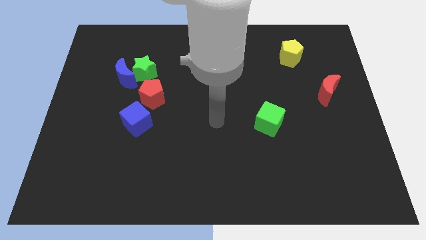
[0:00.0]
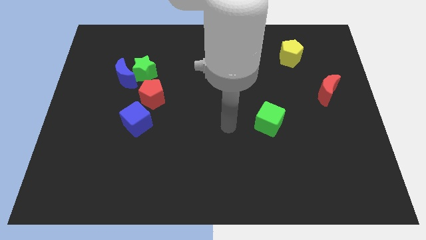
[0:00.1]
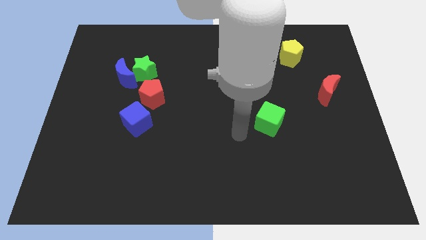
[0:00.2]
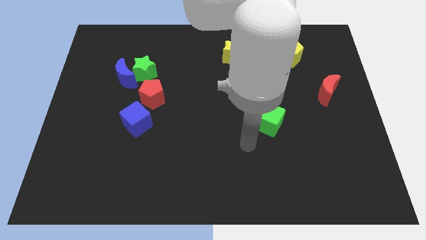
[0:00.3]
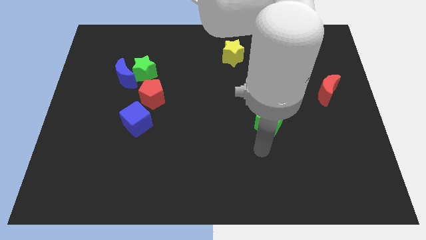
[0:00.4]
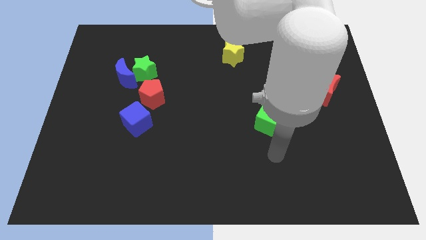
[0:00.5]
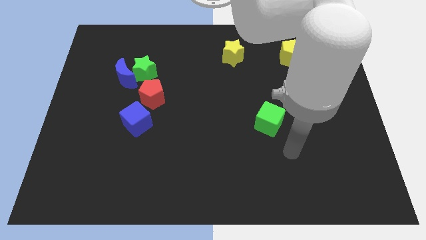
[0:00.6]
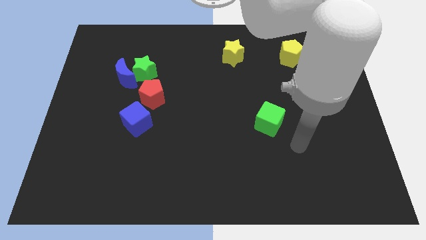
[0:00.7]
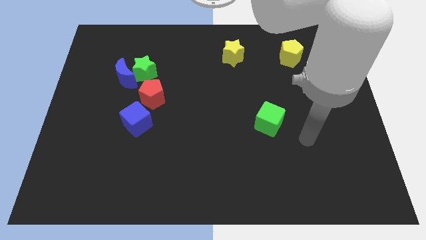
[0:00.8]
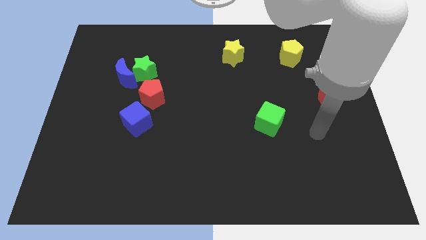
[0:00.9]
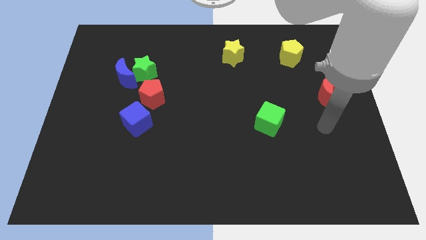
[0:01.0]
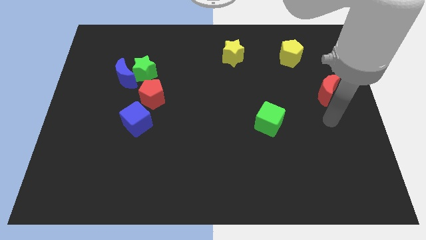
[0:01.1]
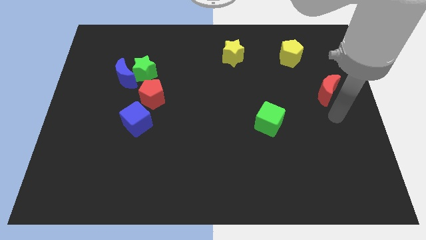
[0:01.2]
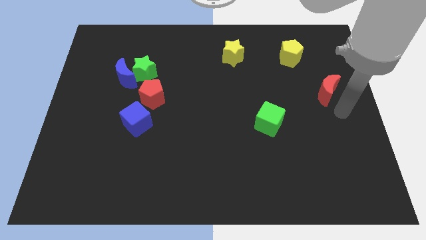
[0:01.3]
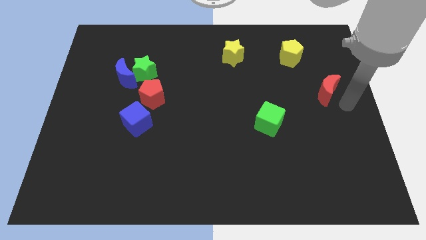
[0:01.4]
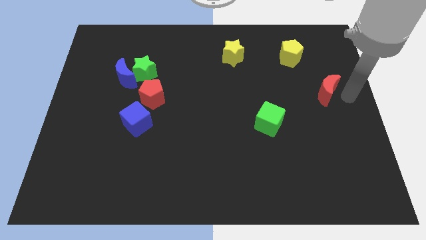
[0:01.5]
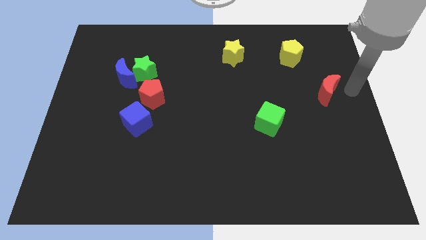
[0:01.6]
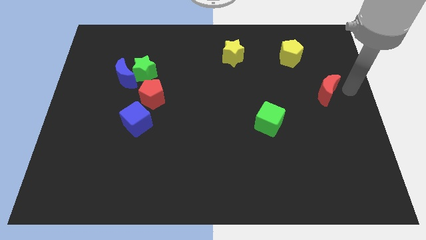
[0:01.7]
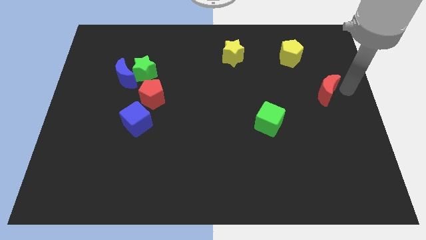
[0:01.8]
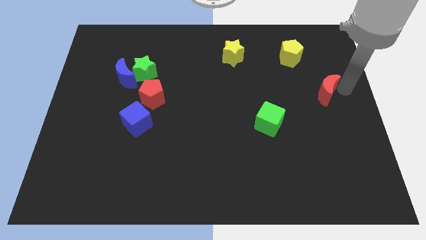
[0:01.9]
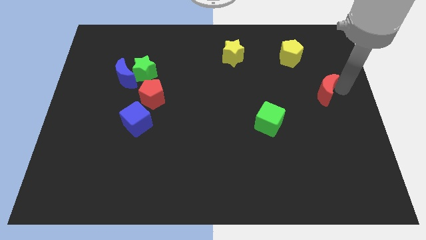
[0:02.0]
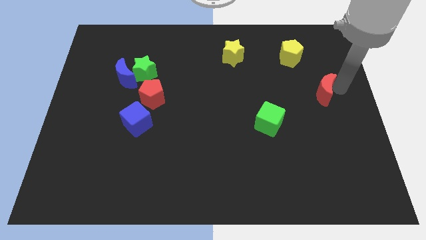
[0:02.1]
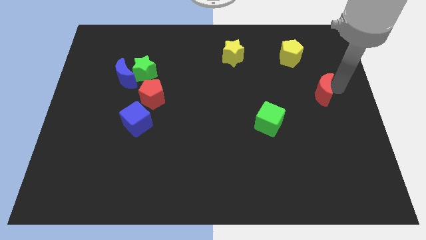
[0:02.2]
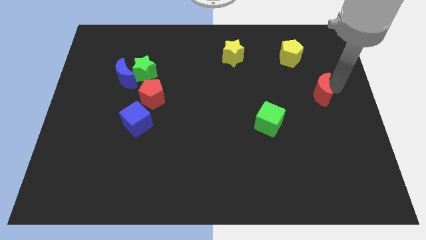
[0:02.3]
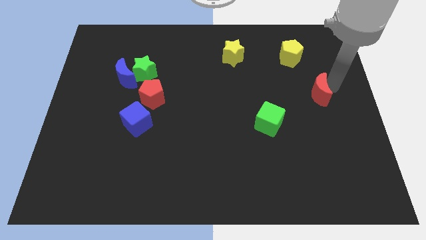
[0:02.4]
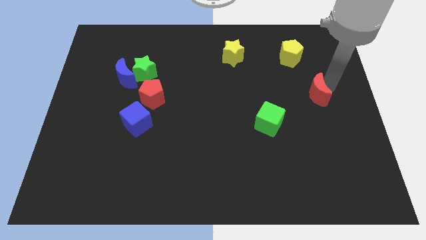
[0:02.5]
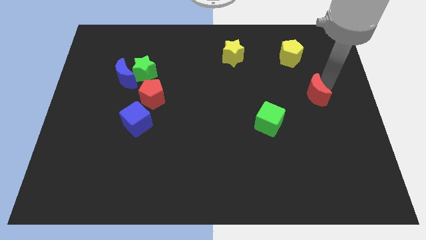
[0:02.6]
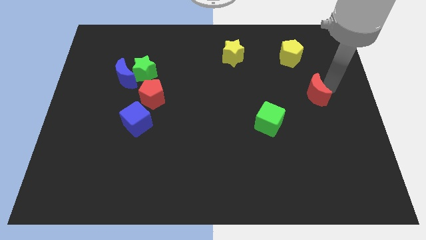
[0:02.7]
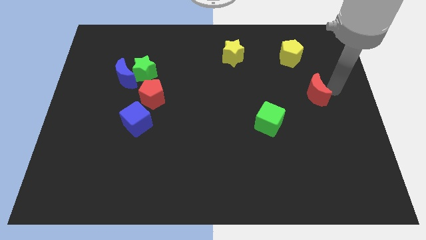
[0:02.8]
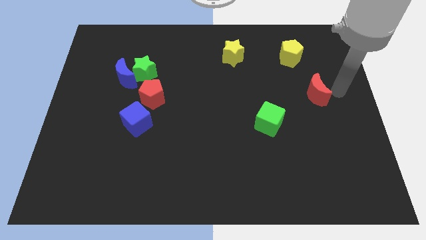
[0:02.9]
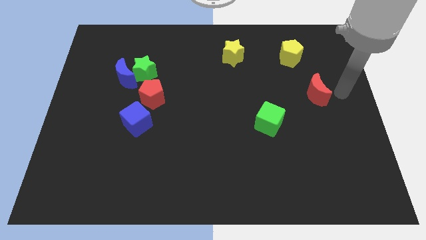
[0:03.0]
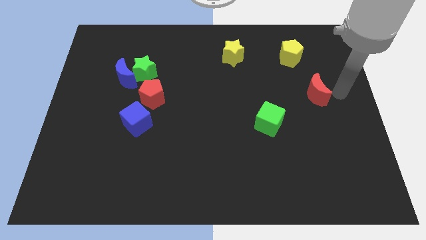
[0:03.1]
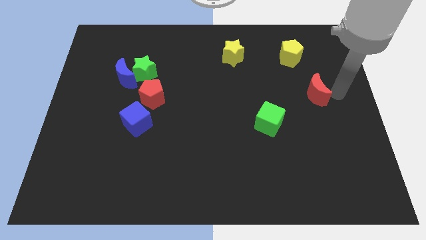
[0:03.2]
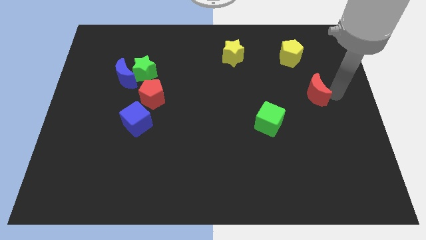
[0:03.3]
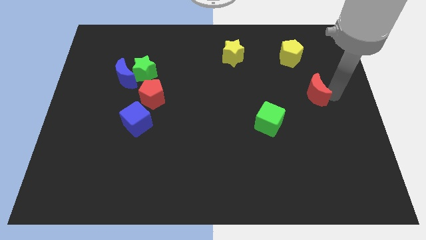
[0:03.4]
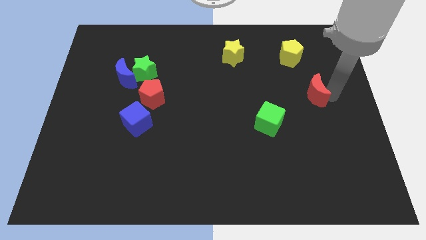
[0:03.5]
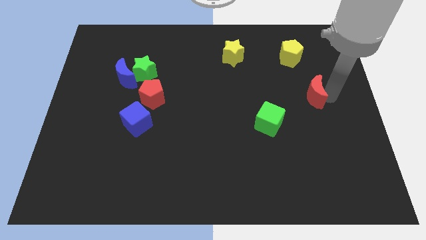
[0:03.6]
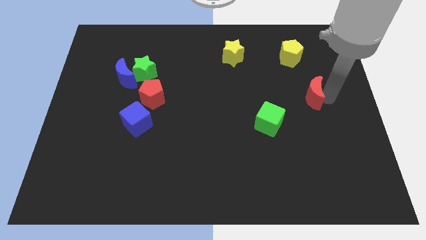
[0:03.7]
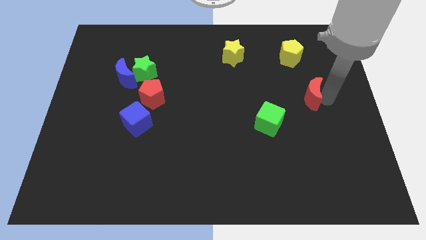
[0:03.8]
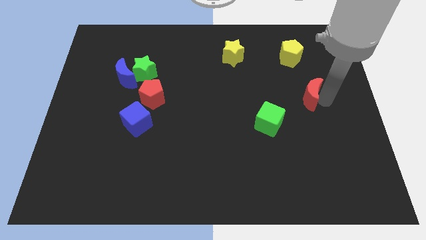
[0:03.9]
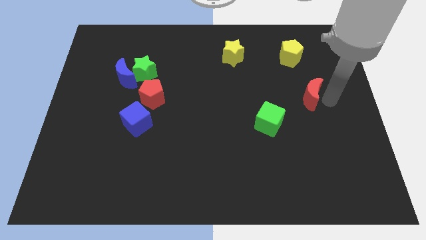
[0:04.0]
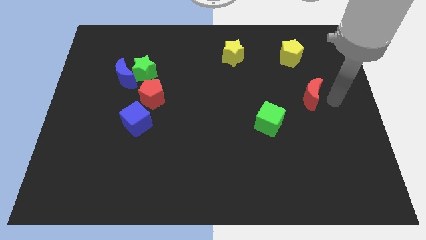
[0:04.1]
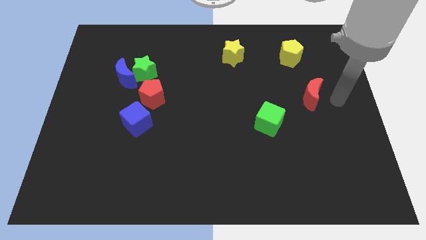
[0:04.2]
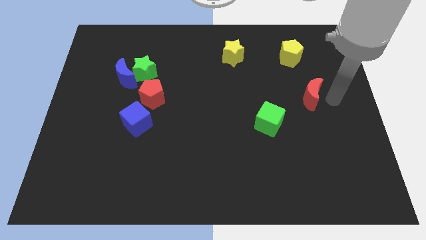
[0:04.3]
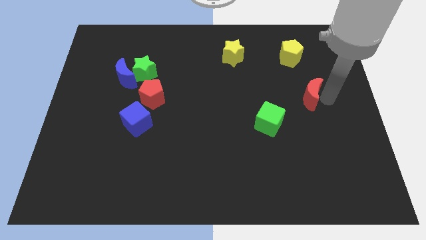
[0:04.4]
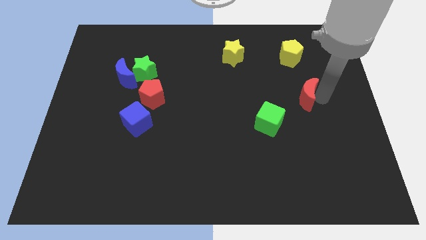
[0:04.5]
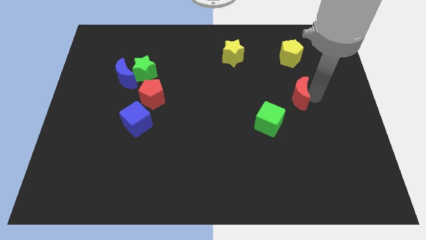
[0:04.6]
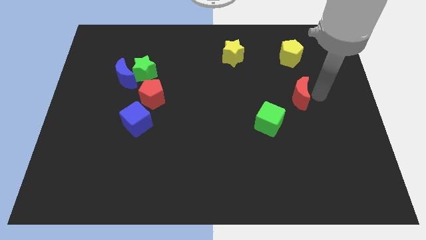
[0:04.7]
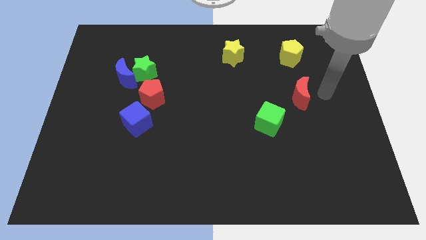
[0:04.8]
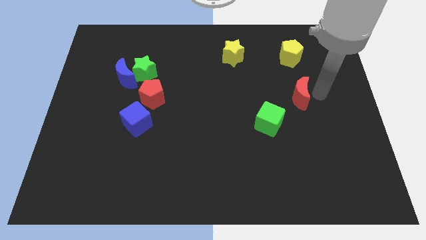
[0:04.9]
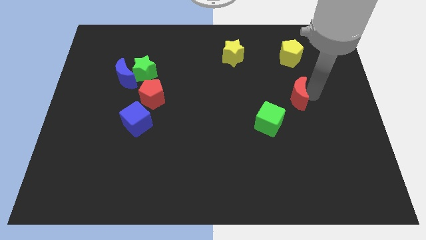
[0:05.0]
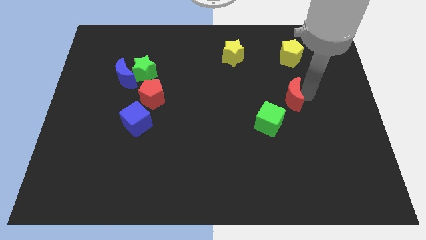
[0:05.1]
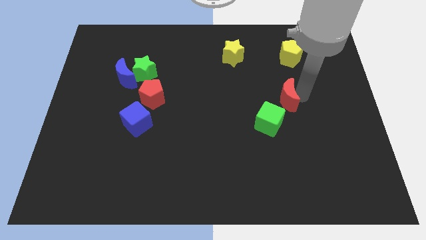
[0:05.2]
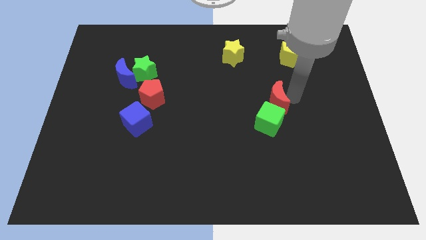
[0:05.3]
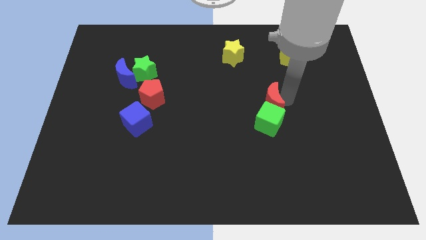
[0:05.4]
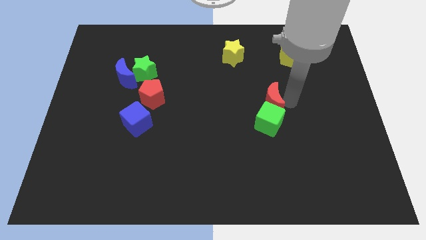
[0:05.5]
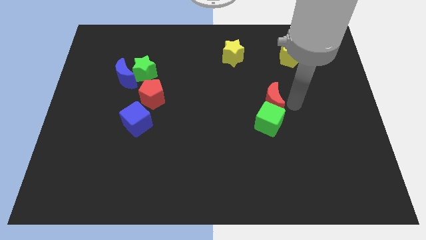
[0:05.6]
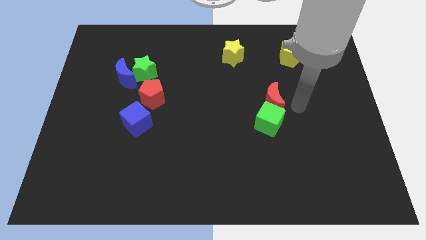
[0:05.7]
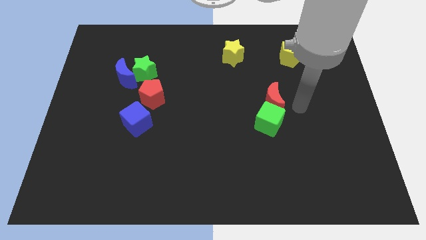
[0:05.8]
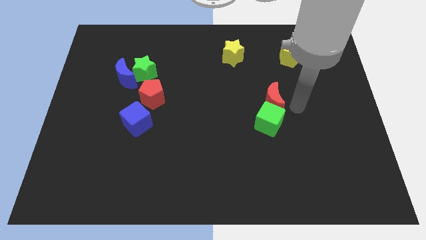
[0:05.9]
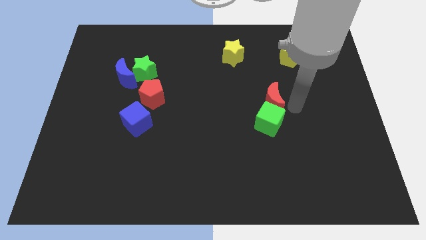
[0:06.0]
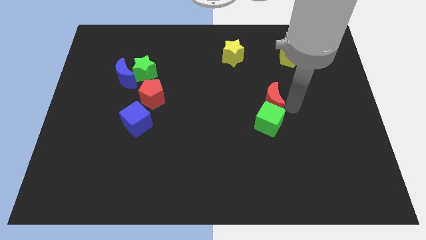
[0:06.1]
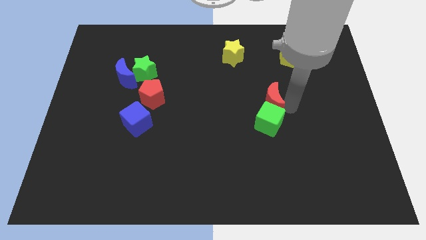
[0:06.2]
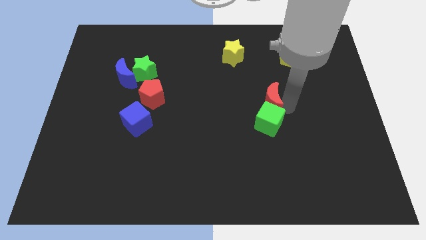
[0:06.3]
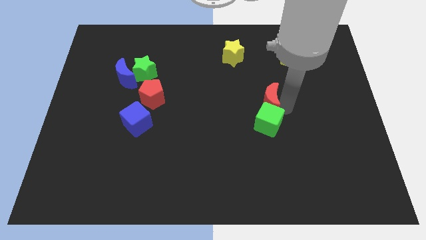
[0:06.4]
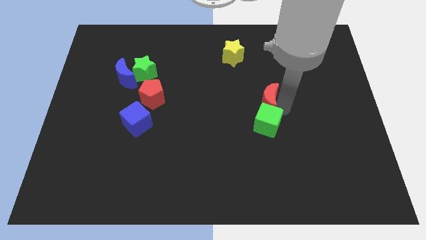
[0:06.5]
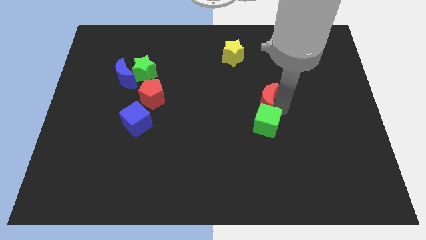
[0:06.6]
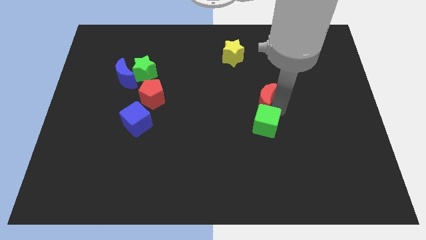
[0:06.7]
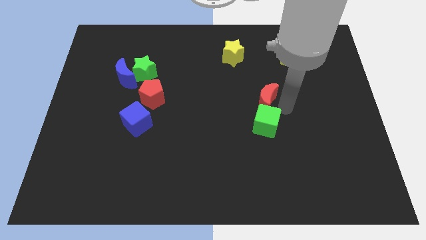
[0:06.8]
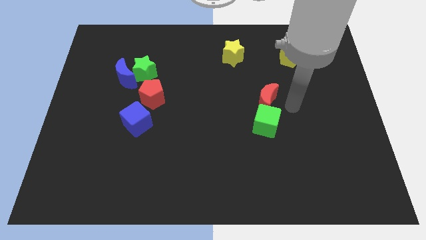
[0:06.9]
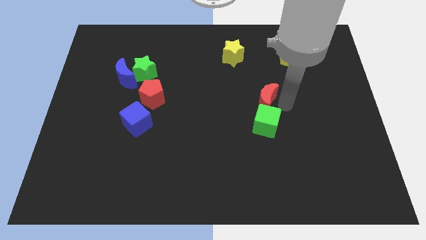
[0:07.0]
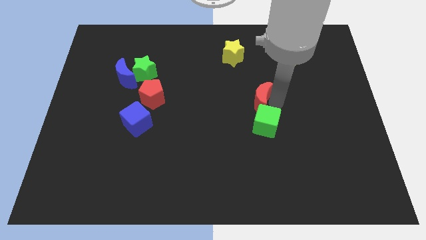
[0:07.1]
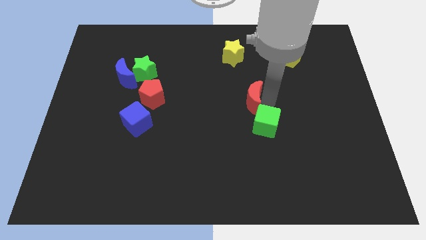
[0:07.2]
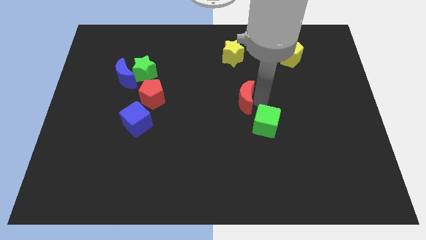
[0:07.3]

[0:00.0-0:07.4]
push the red moon left
